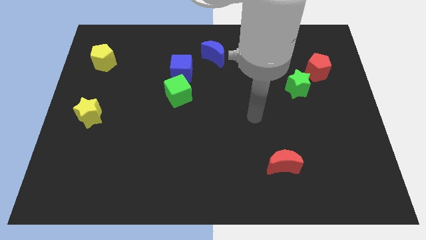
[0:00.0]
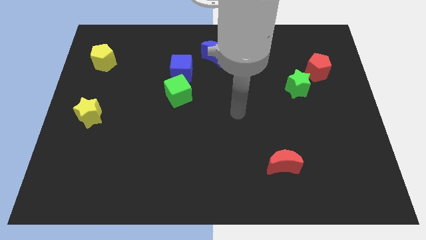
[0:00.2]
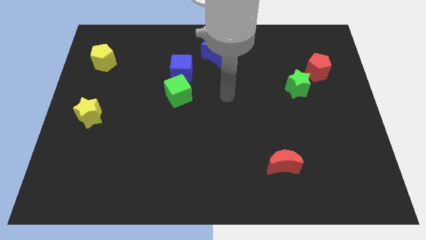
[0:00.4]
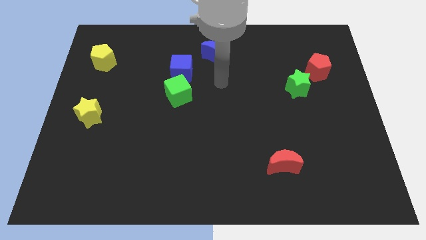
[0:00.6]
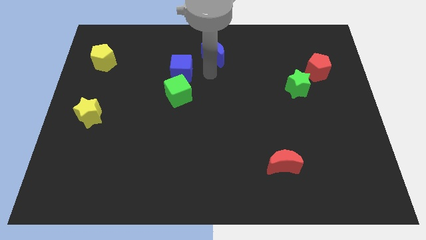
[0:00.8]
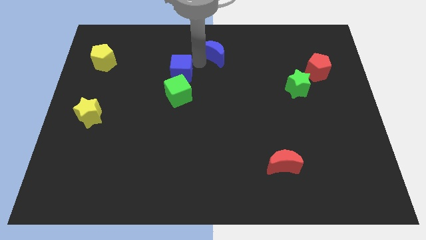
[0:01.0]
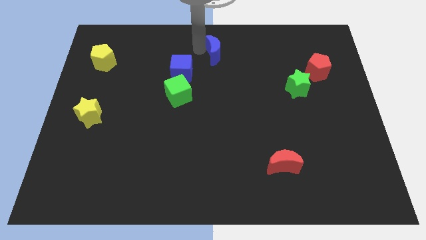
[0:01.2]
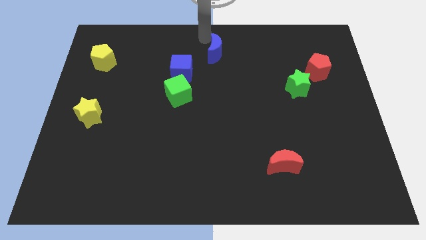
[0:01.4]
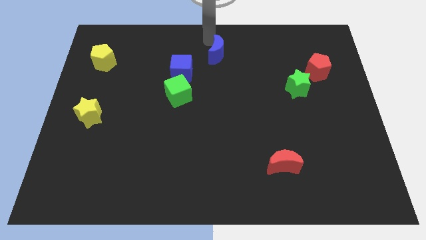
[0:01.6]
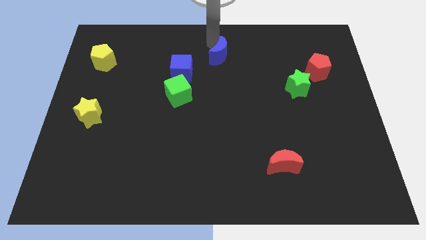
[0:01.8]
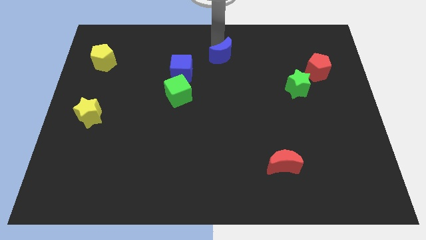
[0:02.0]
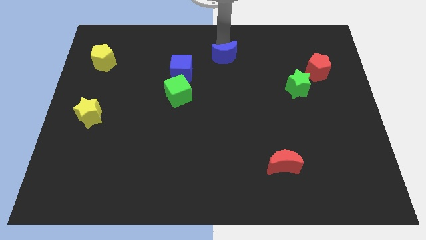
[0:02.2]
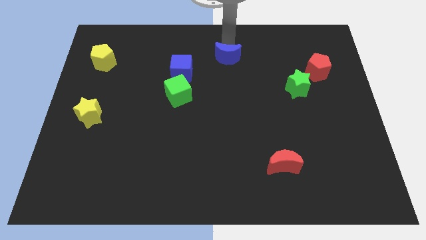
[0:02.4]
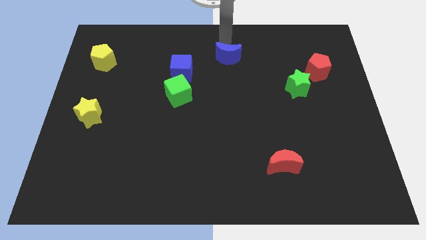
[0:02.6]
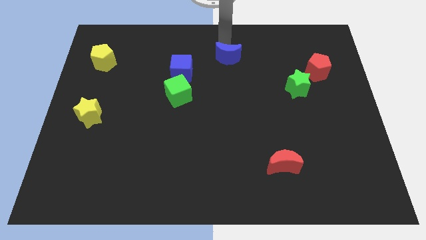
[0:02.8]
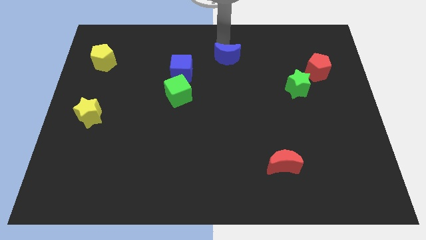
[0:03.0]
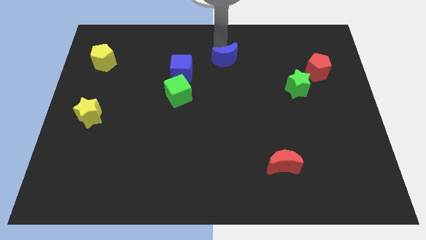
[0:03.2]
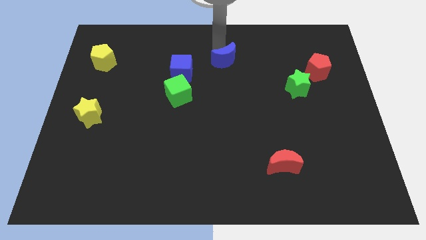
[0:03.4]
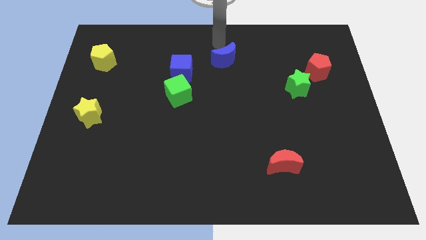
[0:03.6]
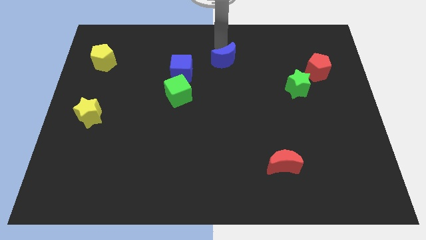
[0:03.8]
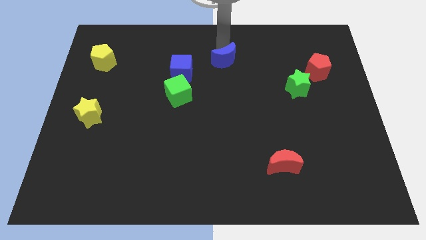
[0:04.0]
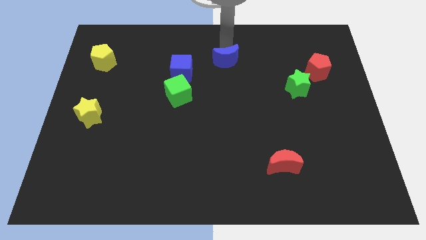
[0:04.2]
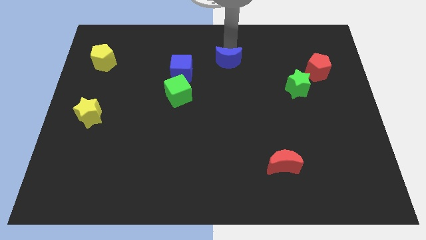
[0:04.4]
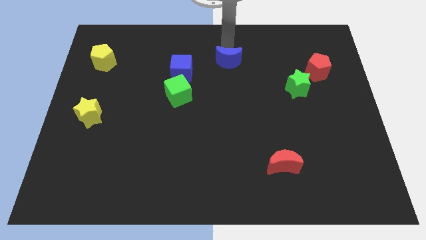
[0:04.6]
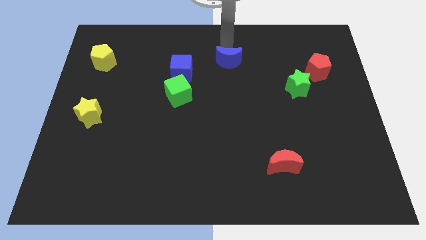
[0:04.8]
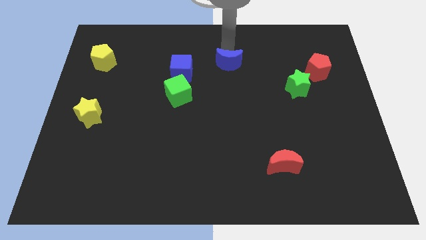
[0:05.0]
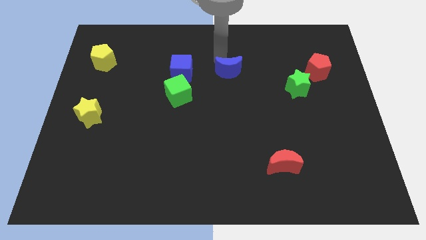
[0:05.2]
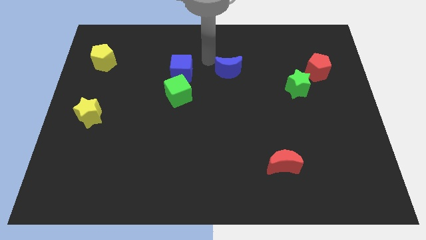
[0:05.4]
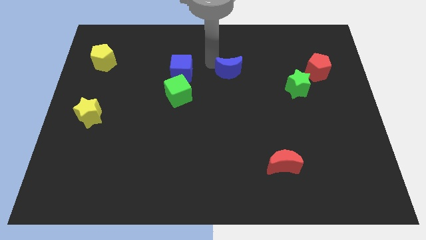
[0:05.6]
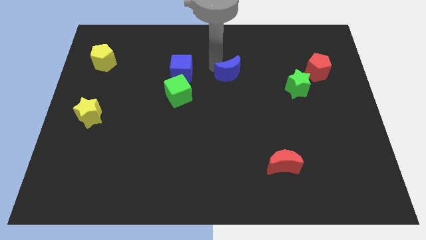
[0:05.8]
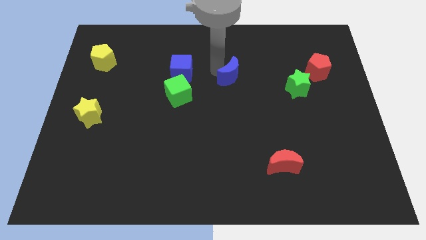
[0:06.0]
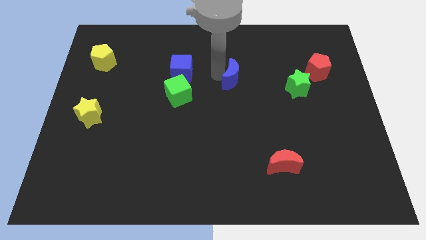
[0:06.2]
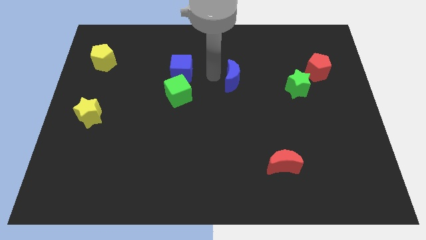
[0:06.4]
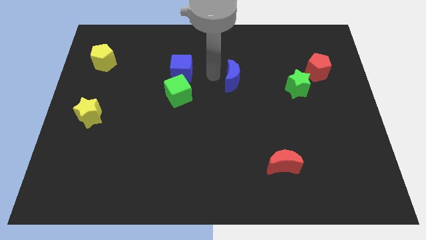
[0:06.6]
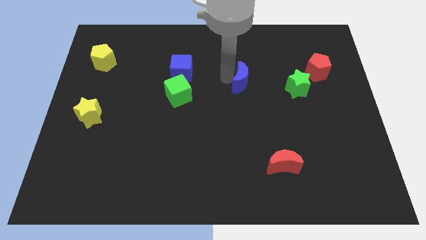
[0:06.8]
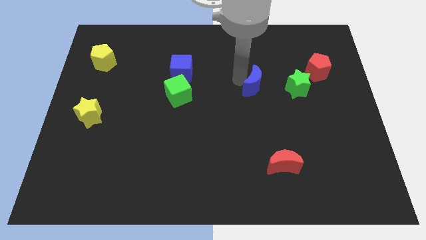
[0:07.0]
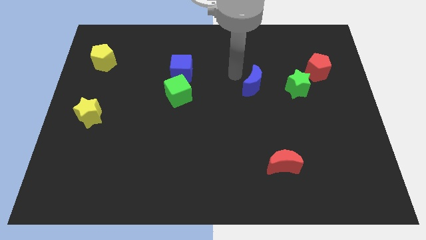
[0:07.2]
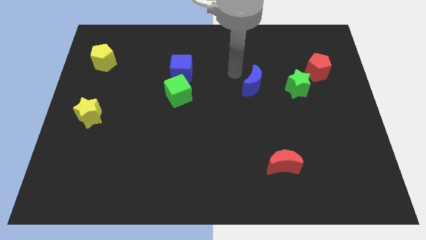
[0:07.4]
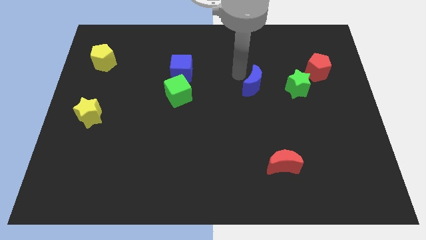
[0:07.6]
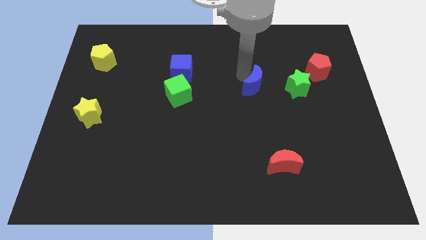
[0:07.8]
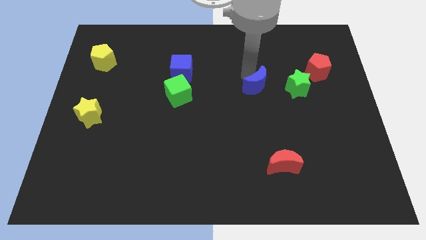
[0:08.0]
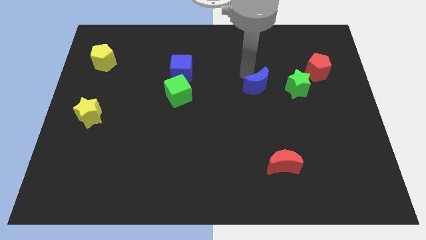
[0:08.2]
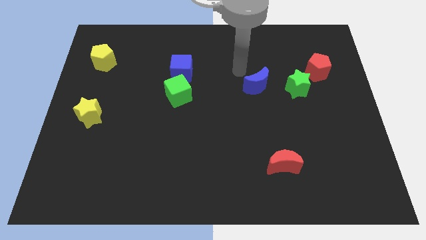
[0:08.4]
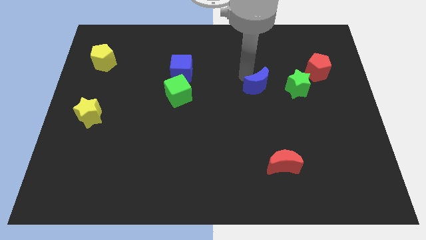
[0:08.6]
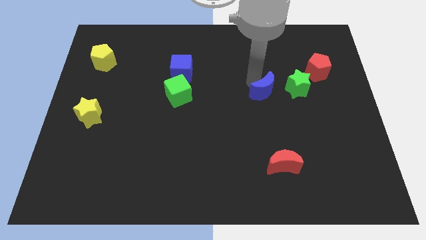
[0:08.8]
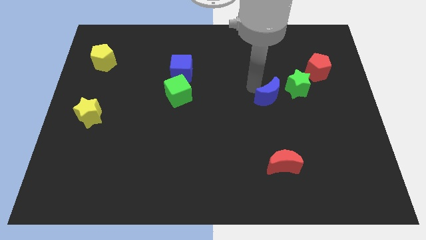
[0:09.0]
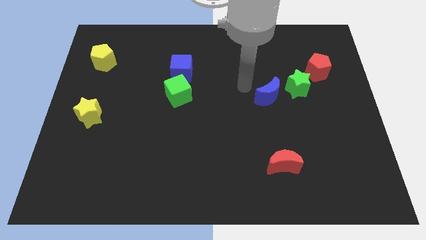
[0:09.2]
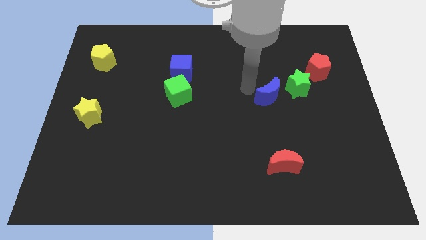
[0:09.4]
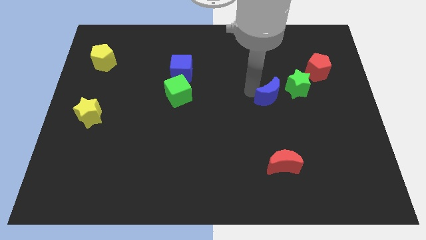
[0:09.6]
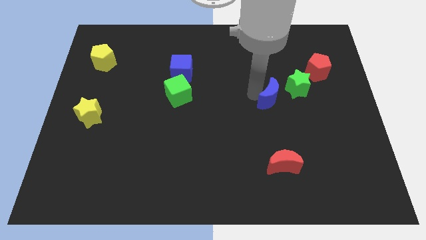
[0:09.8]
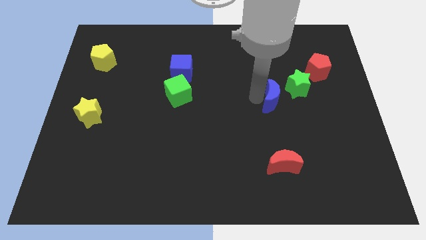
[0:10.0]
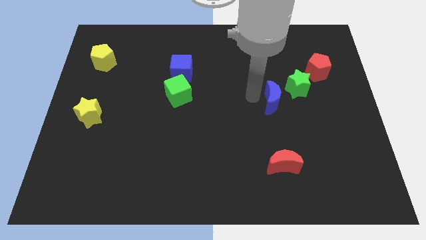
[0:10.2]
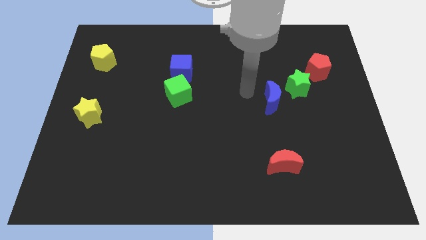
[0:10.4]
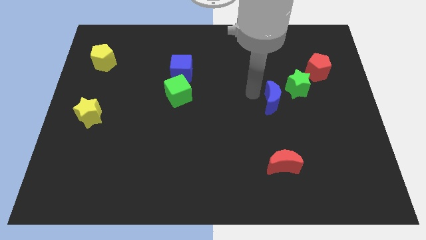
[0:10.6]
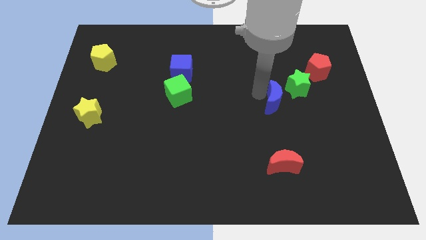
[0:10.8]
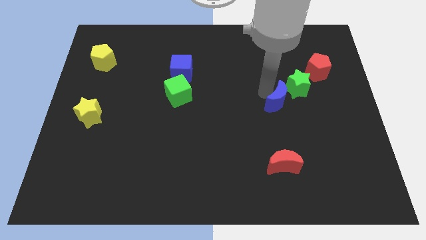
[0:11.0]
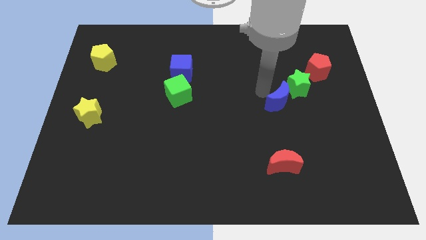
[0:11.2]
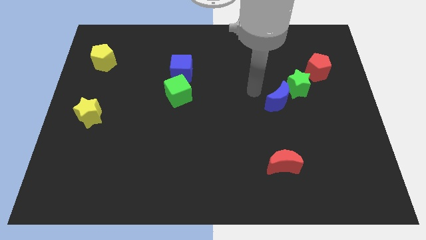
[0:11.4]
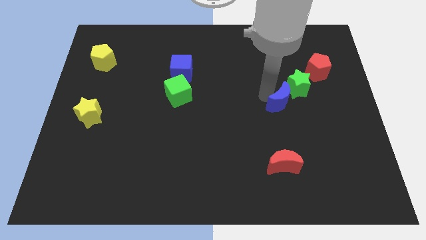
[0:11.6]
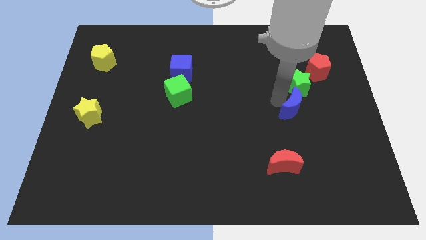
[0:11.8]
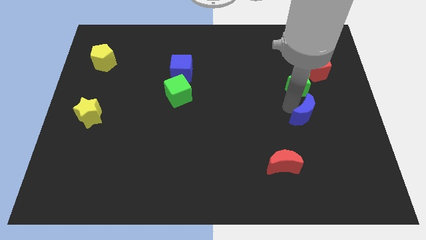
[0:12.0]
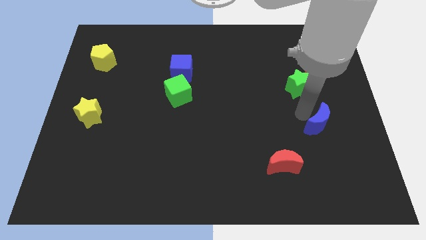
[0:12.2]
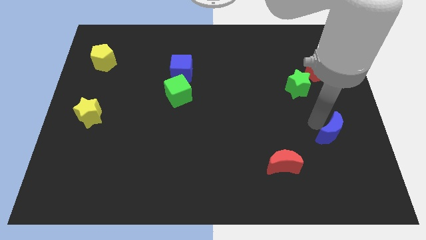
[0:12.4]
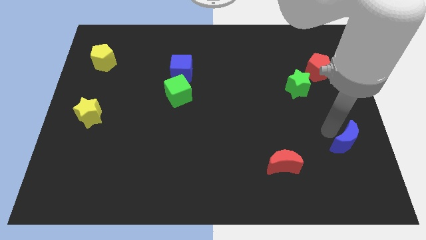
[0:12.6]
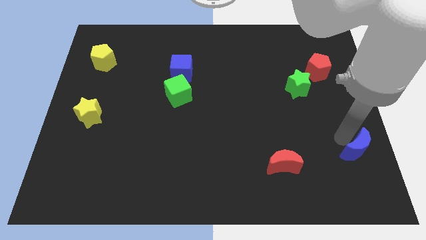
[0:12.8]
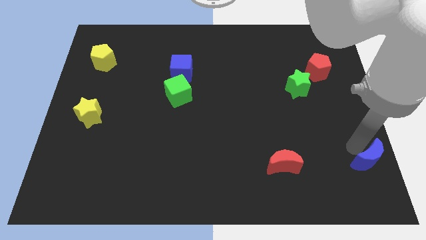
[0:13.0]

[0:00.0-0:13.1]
move the blue moon to the bottom right
